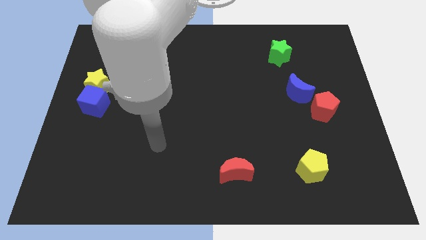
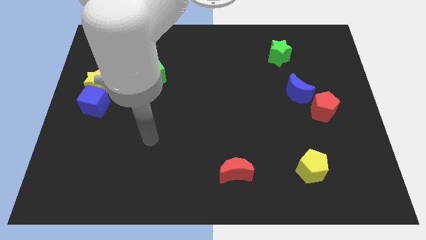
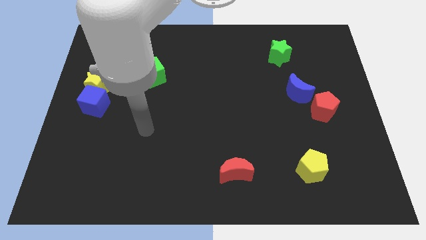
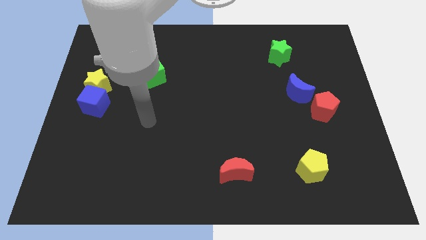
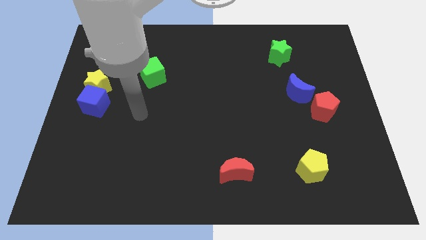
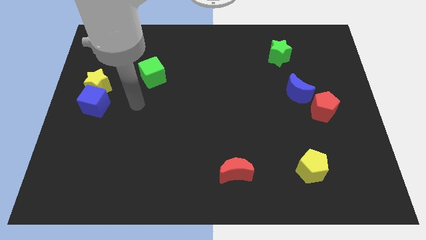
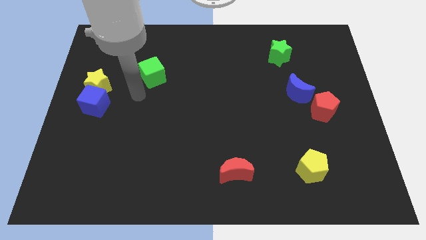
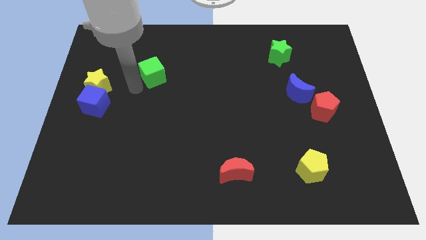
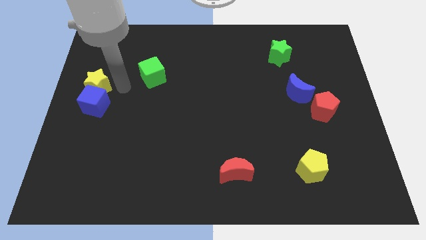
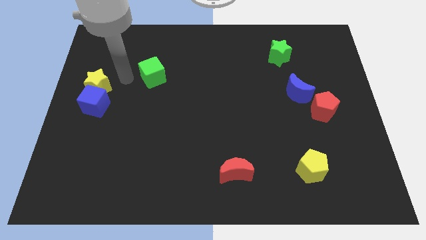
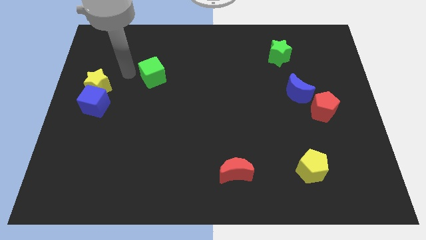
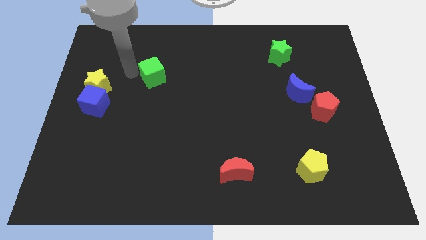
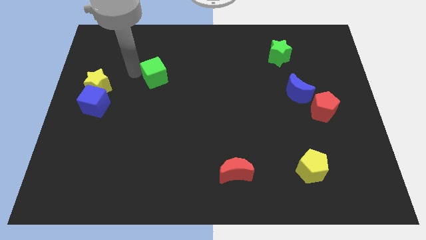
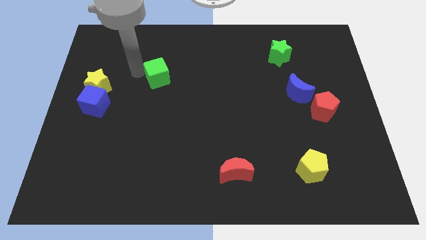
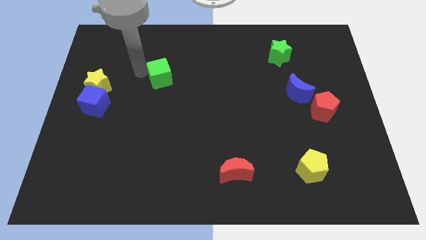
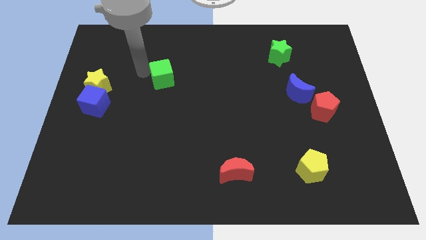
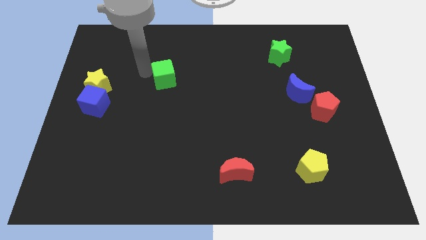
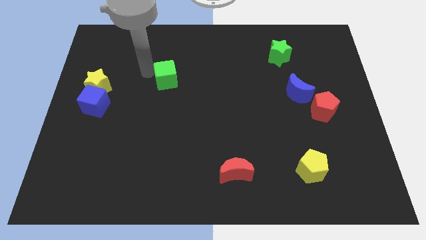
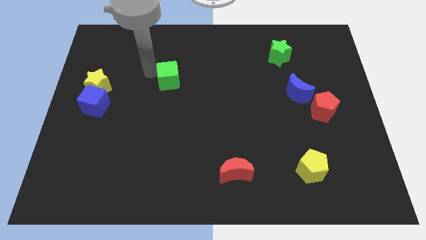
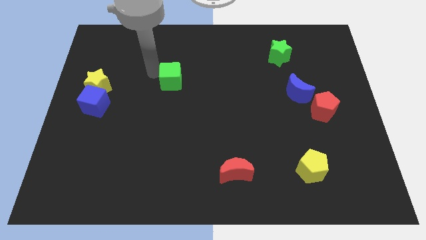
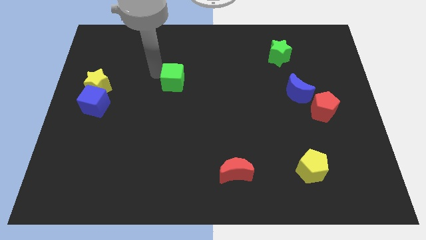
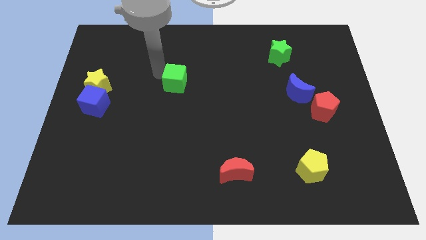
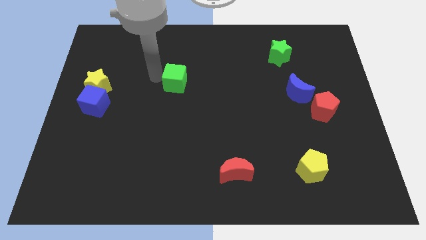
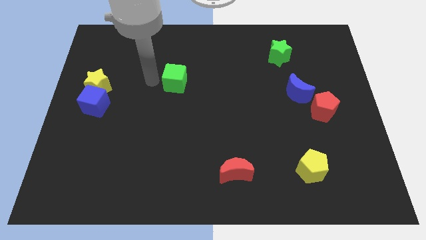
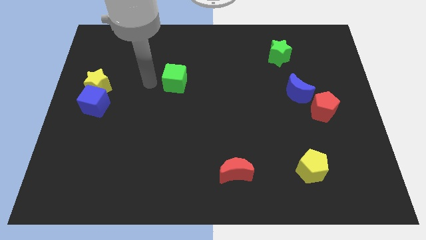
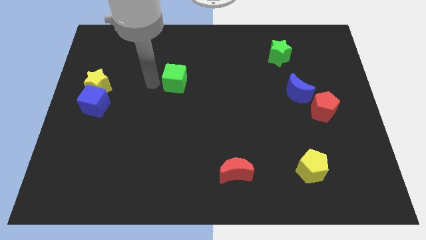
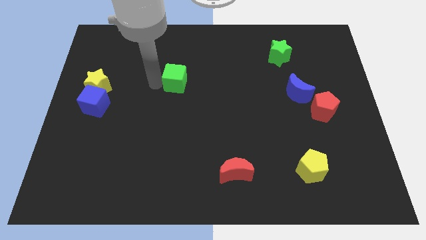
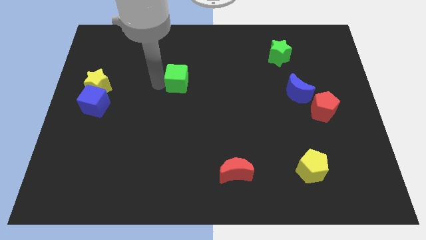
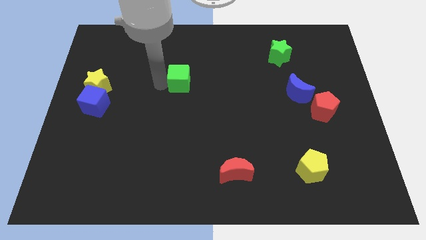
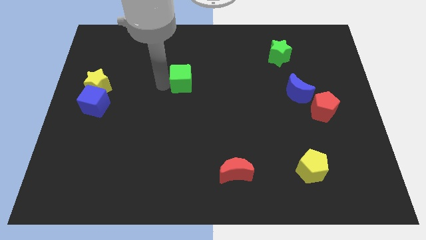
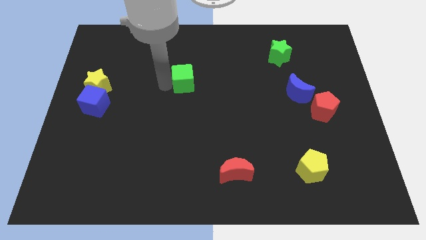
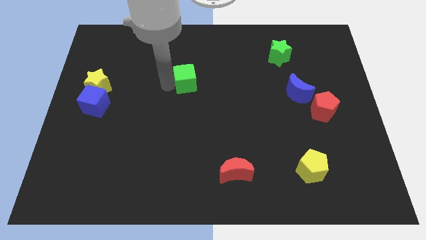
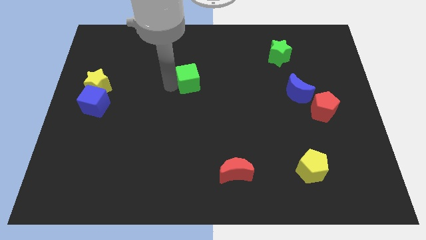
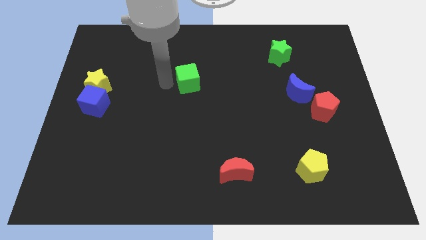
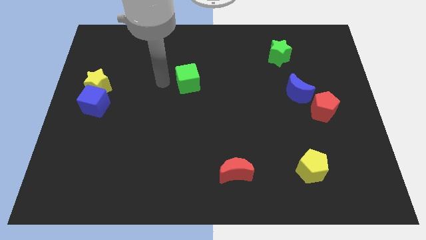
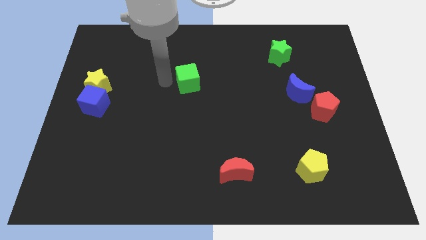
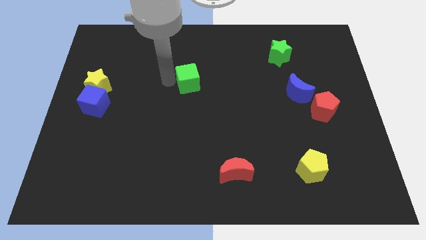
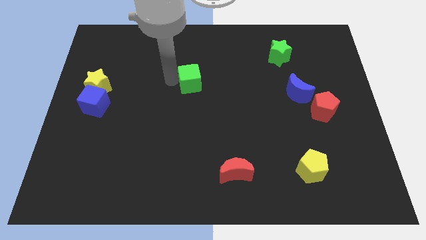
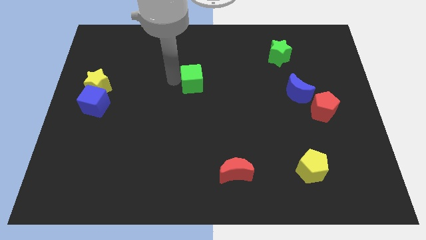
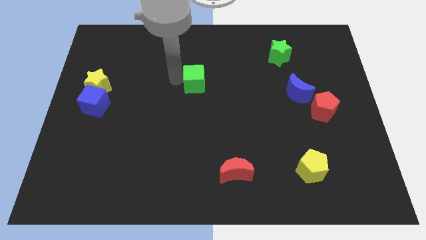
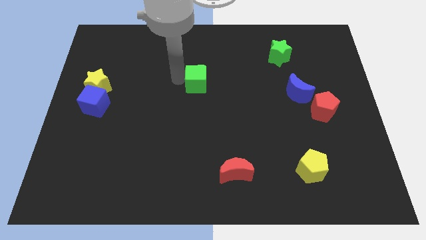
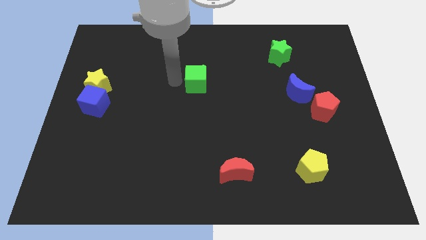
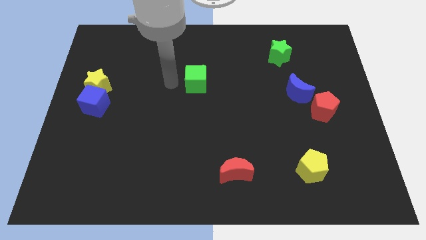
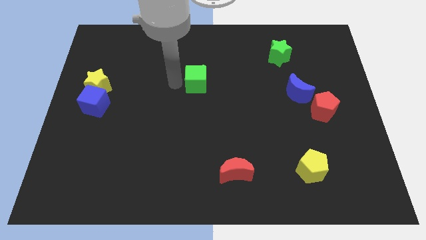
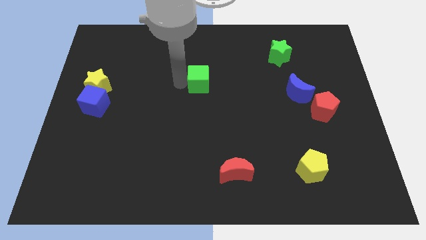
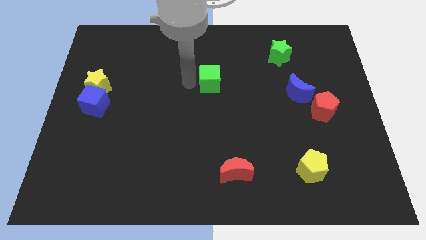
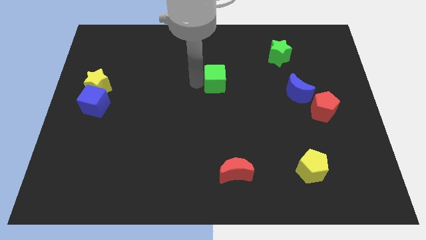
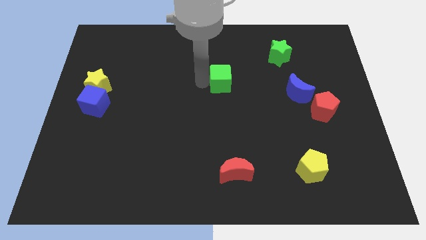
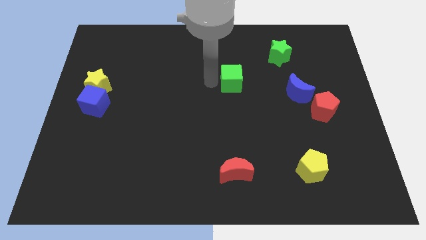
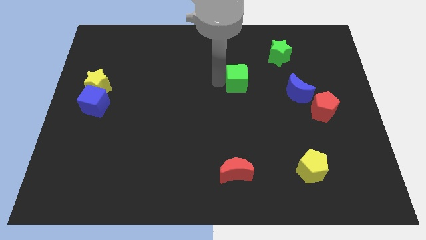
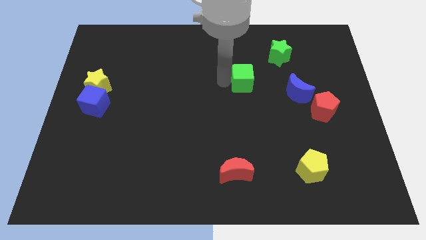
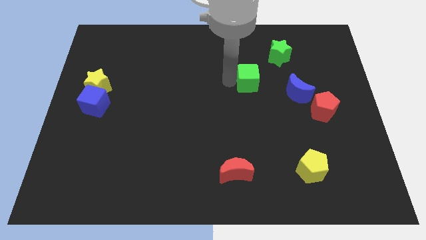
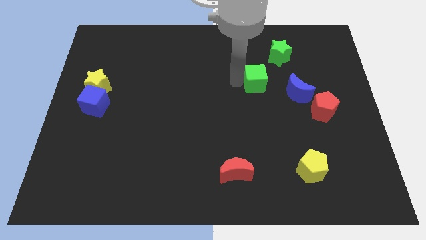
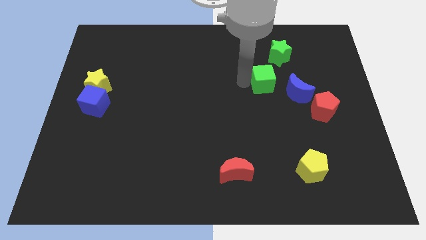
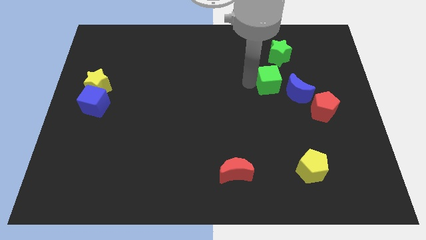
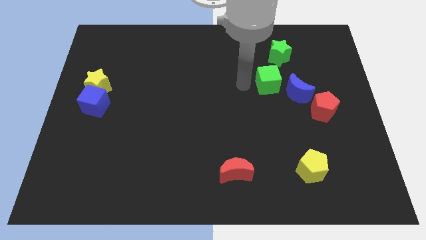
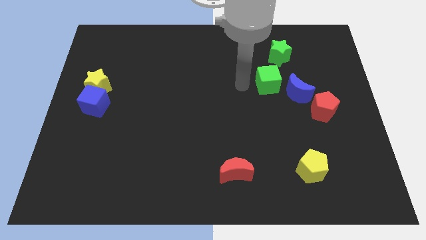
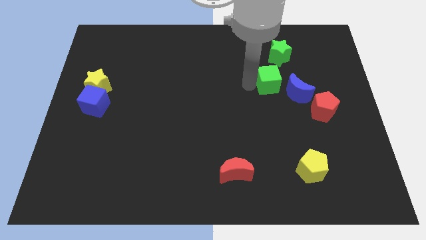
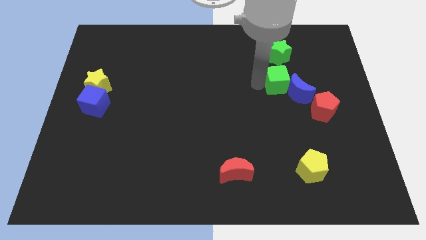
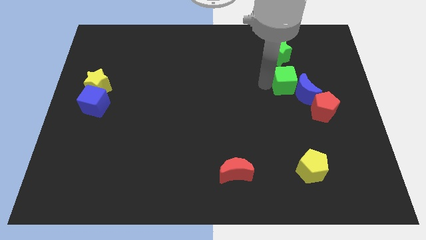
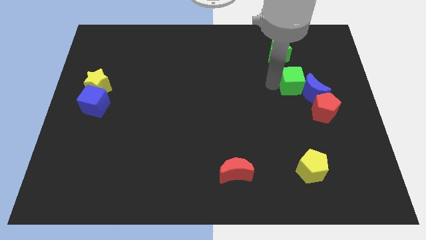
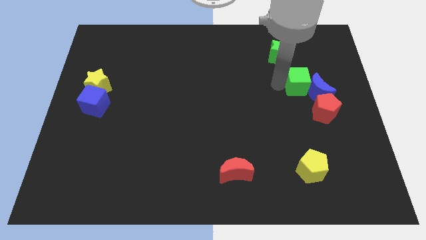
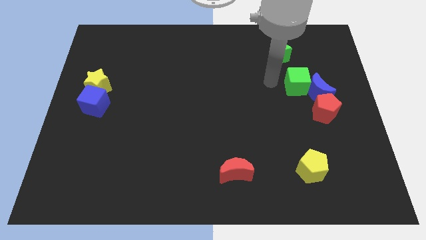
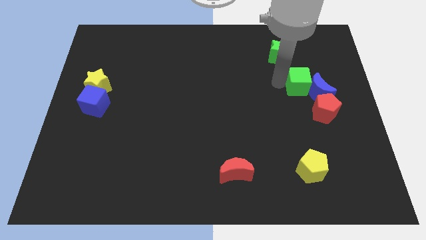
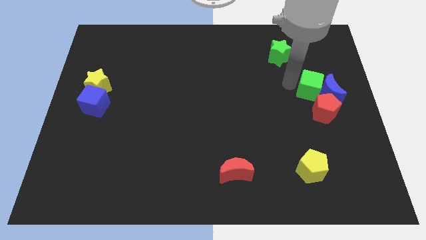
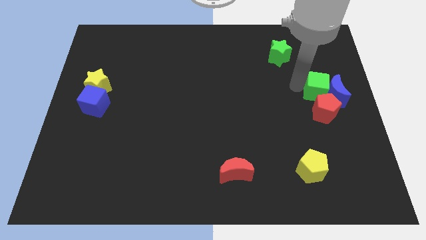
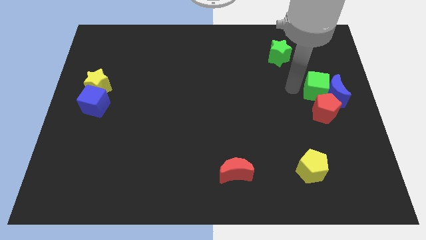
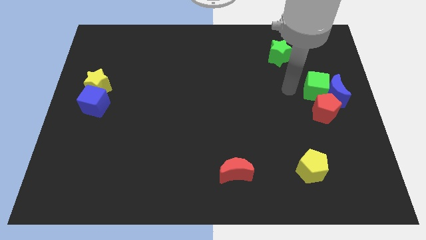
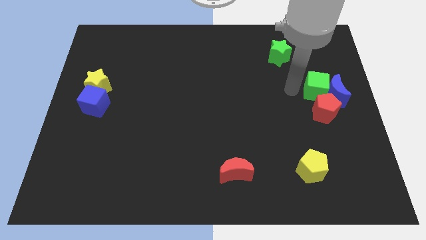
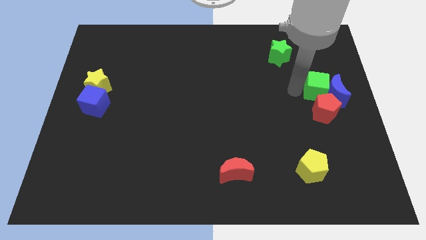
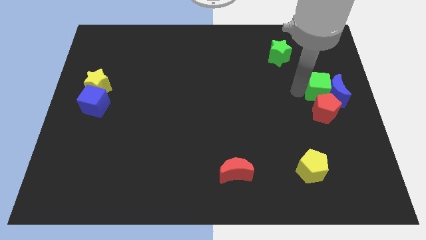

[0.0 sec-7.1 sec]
slide the green cube to the right side of the board
